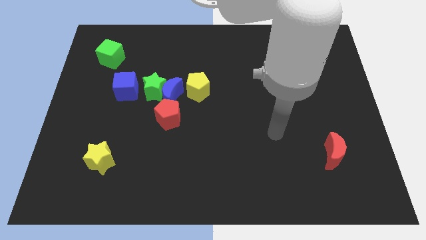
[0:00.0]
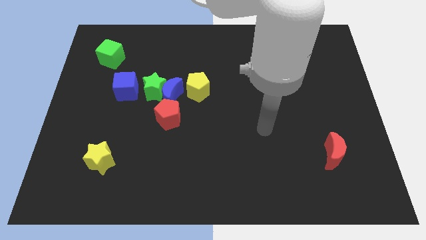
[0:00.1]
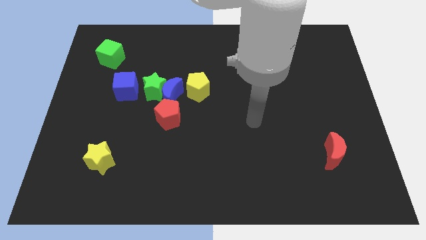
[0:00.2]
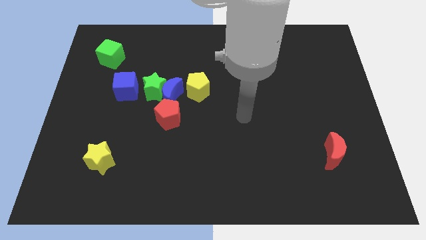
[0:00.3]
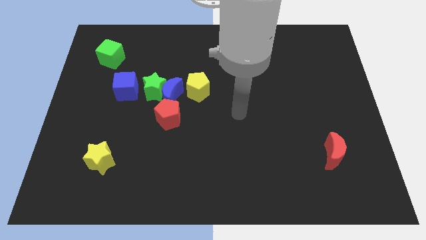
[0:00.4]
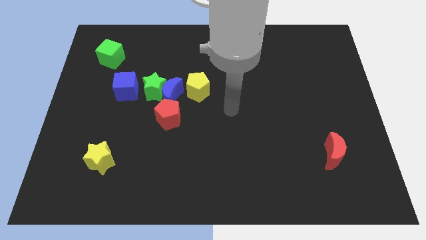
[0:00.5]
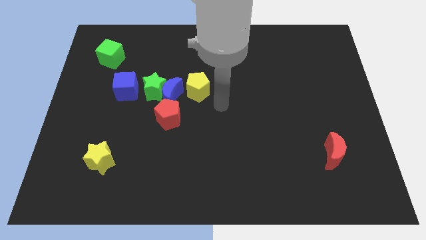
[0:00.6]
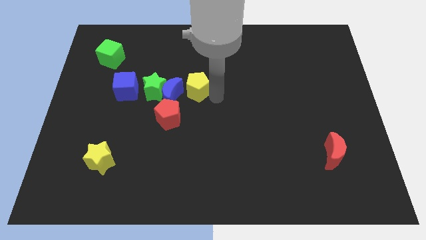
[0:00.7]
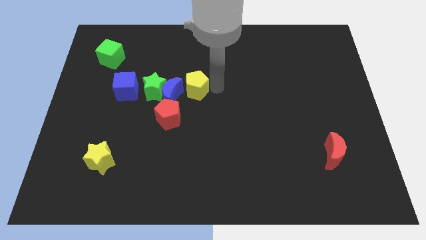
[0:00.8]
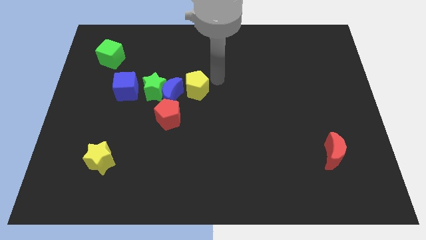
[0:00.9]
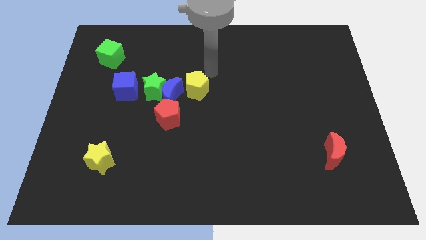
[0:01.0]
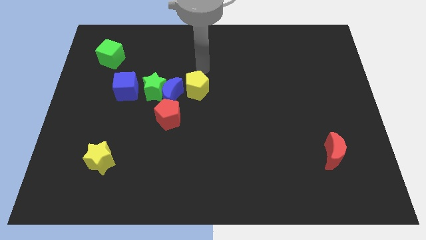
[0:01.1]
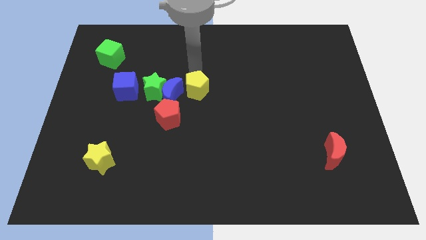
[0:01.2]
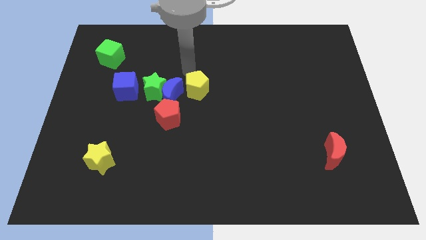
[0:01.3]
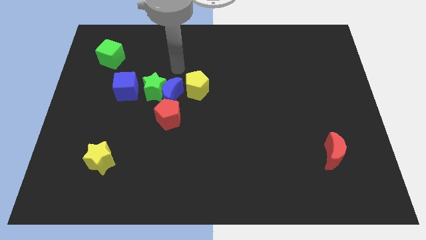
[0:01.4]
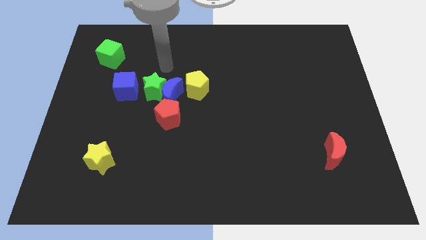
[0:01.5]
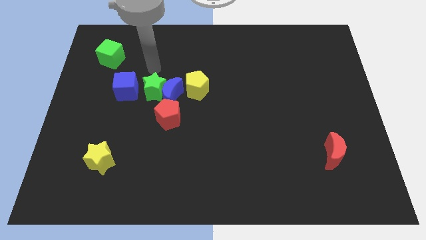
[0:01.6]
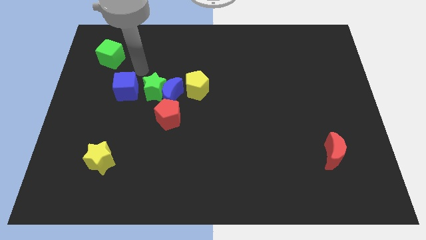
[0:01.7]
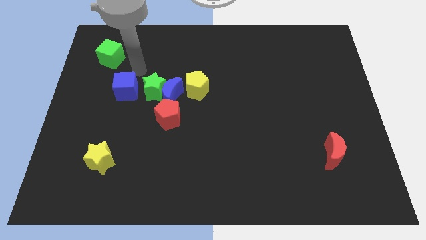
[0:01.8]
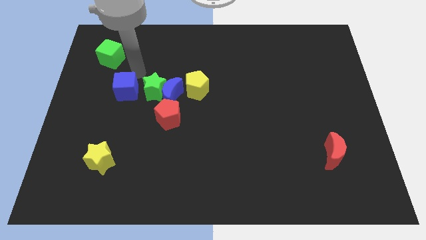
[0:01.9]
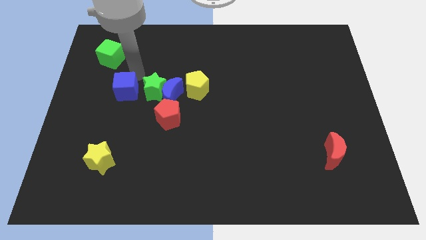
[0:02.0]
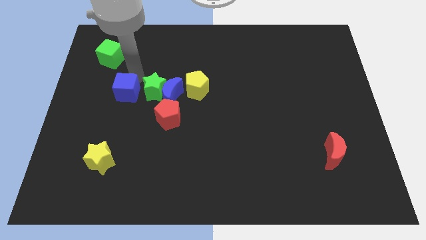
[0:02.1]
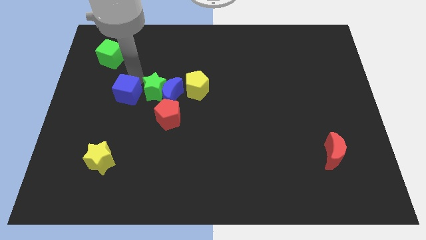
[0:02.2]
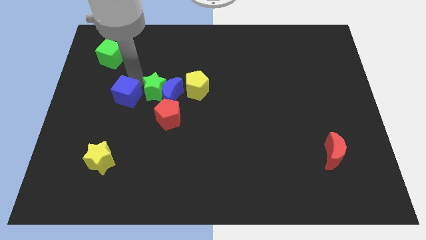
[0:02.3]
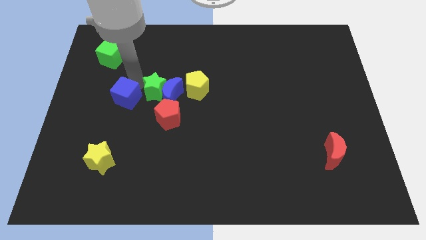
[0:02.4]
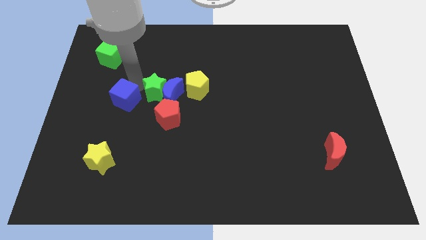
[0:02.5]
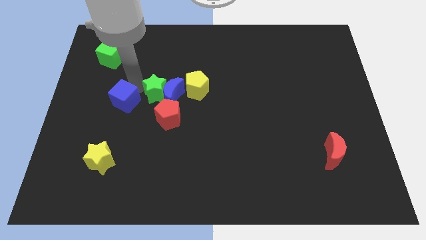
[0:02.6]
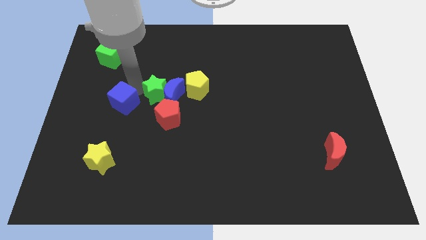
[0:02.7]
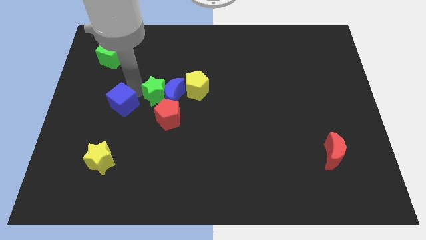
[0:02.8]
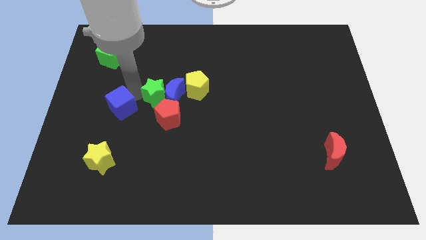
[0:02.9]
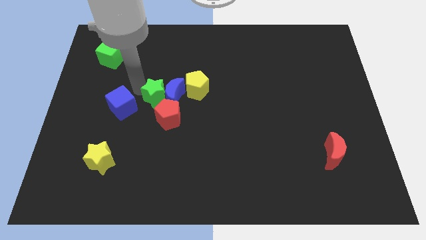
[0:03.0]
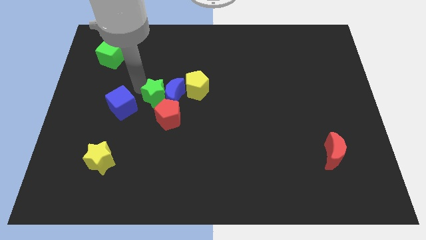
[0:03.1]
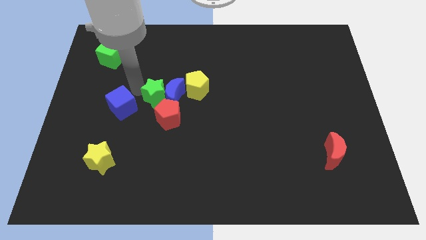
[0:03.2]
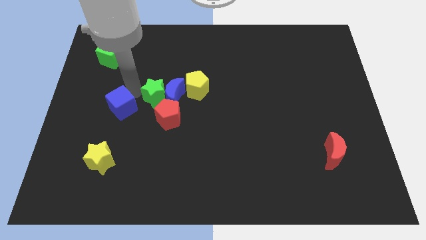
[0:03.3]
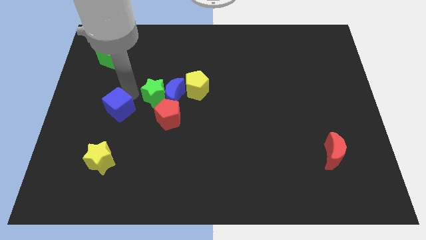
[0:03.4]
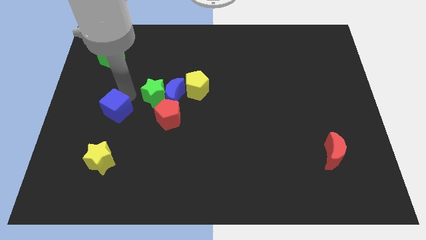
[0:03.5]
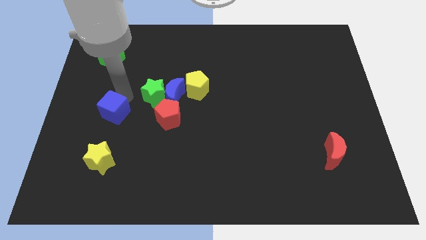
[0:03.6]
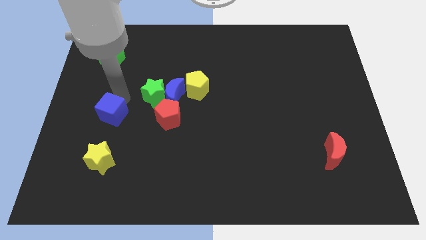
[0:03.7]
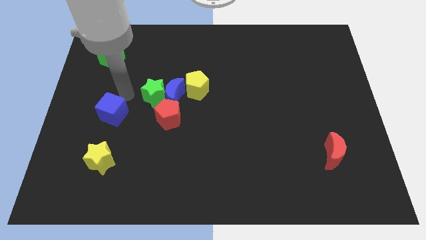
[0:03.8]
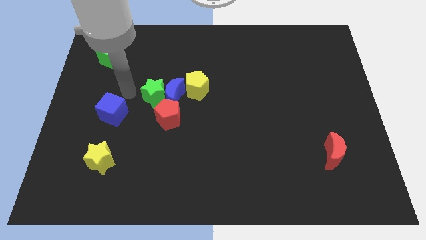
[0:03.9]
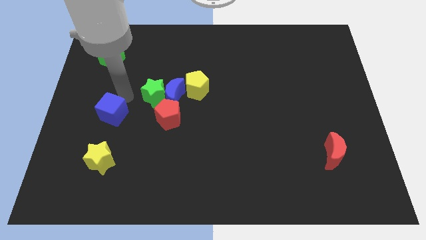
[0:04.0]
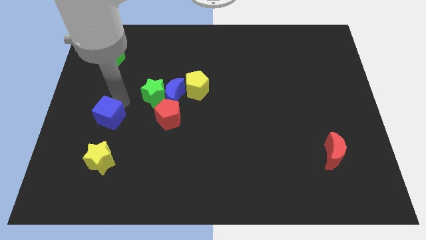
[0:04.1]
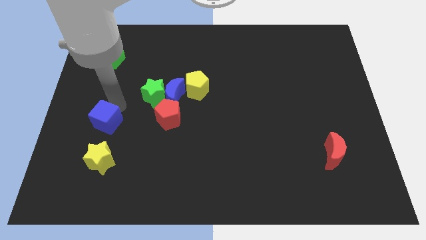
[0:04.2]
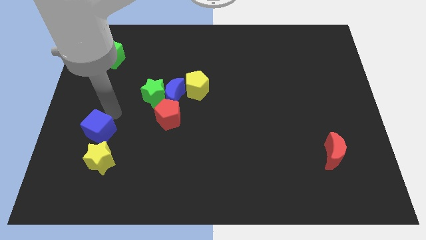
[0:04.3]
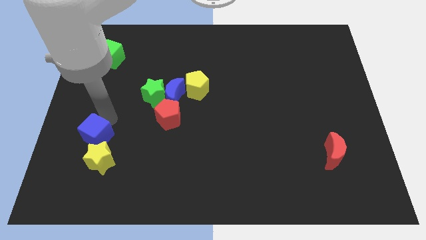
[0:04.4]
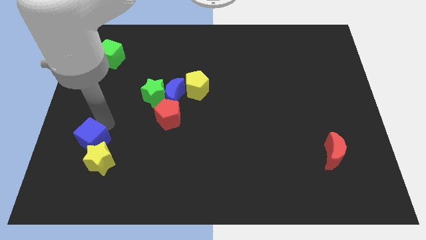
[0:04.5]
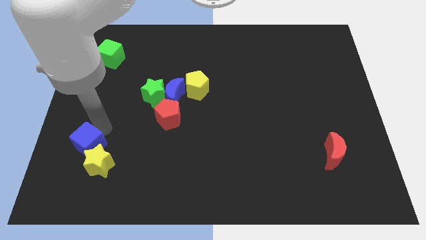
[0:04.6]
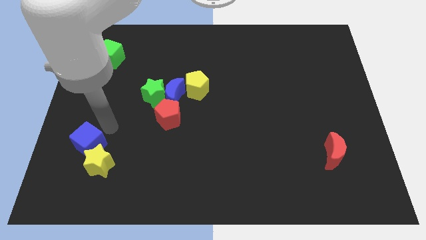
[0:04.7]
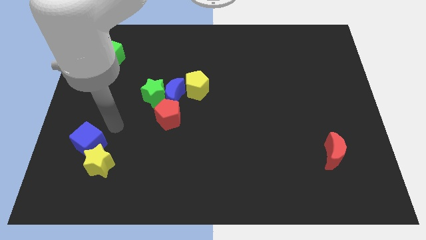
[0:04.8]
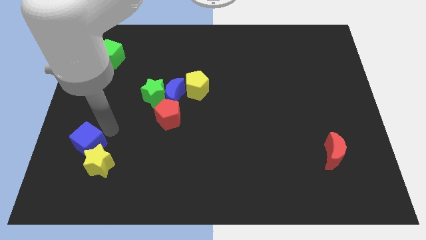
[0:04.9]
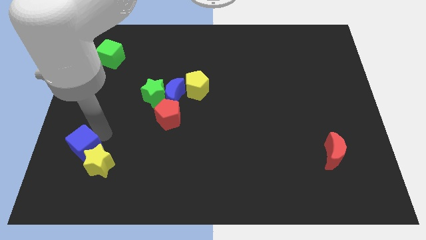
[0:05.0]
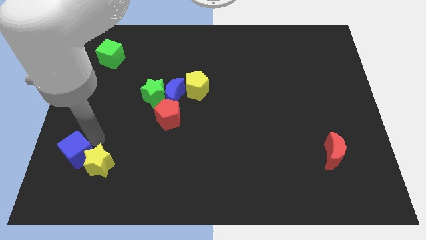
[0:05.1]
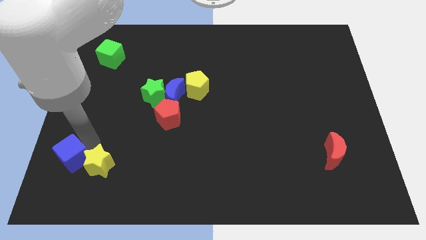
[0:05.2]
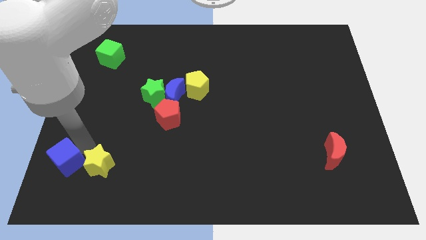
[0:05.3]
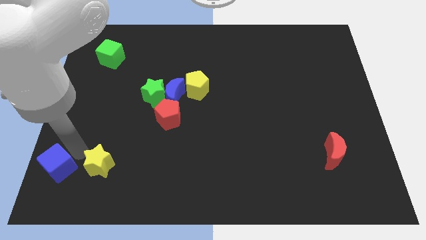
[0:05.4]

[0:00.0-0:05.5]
push the blue cube to the lower left corner

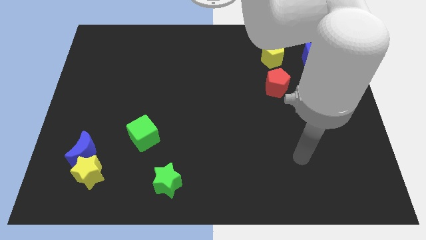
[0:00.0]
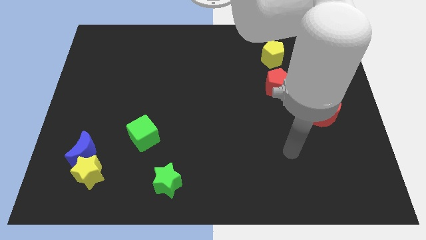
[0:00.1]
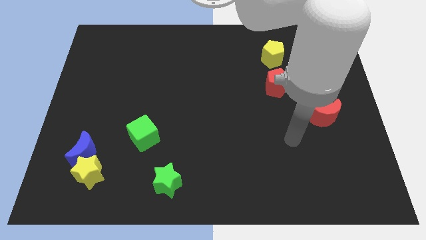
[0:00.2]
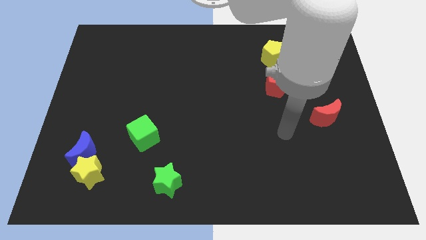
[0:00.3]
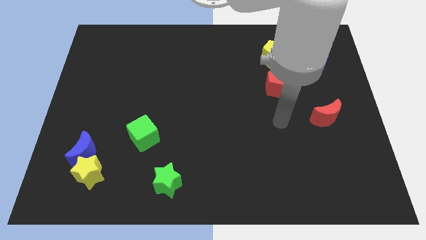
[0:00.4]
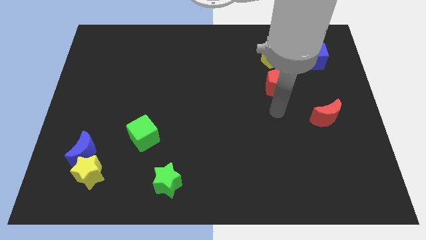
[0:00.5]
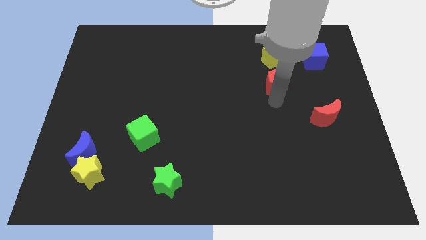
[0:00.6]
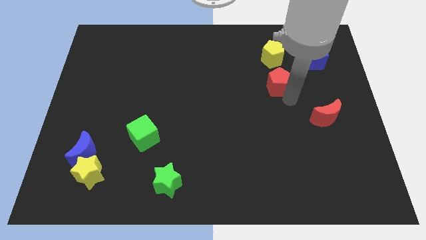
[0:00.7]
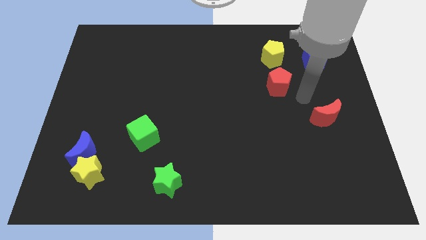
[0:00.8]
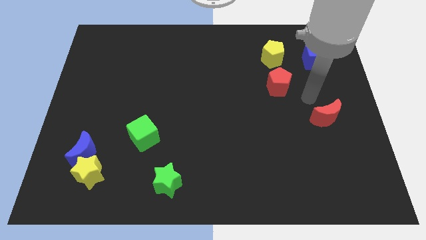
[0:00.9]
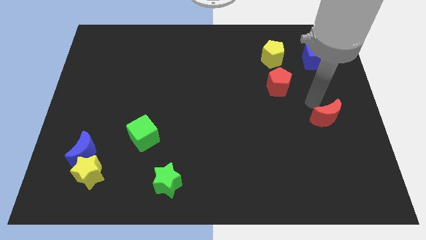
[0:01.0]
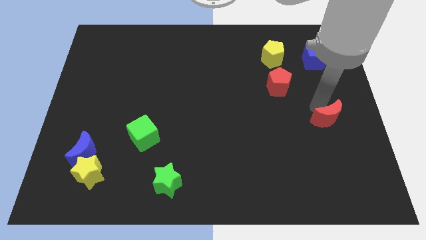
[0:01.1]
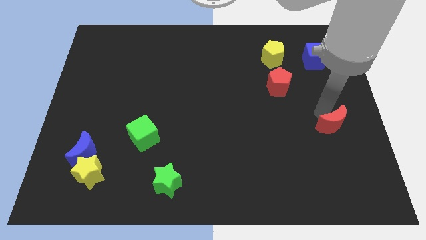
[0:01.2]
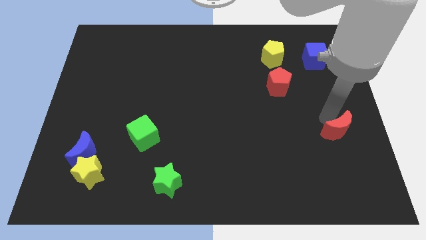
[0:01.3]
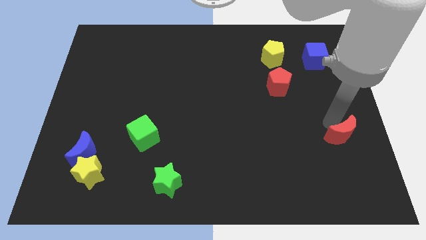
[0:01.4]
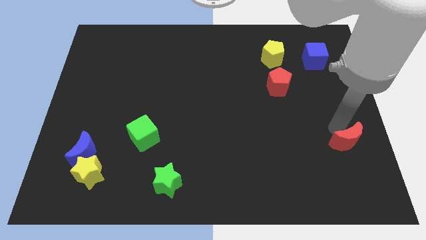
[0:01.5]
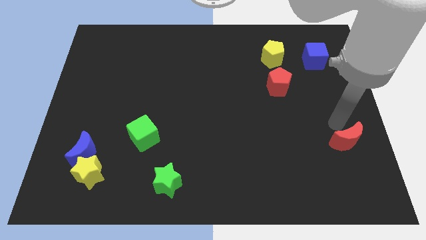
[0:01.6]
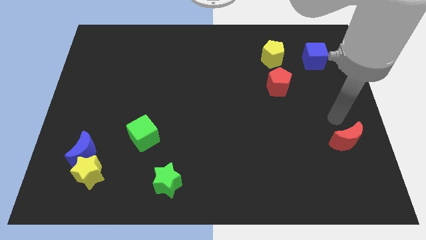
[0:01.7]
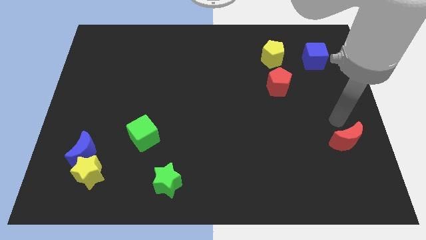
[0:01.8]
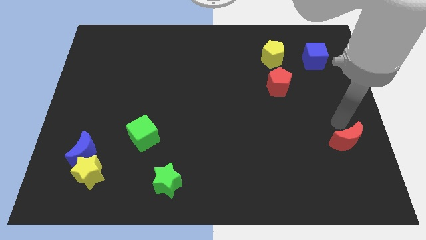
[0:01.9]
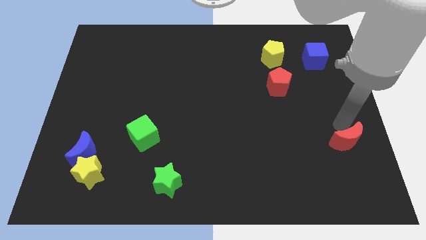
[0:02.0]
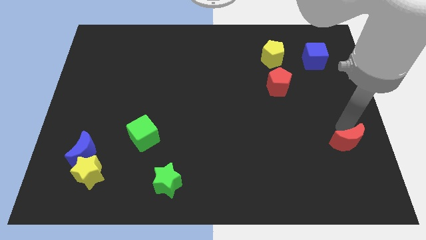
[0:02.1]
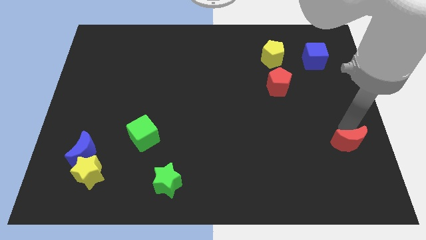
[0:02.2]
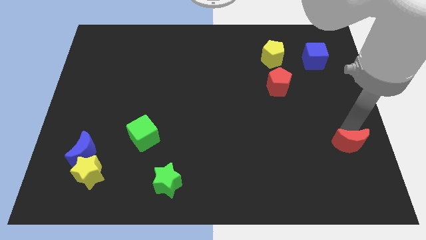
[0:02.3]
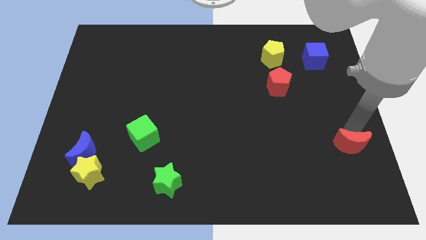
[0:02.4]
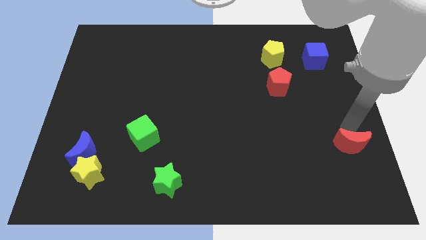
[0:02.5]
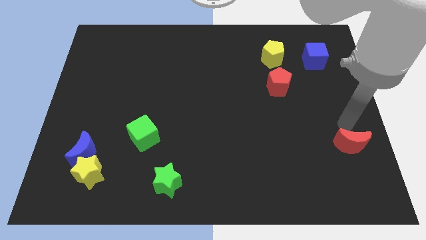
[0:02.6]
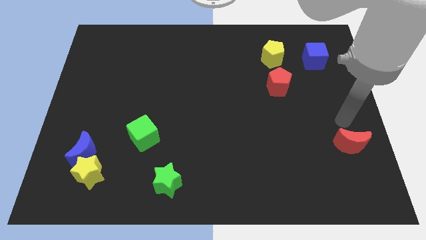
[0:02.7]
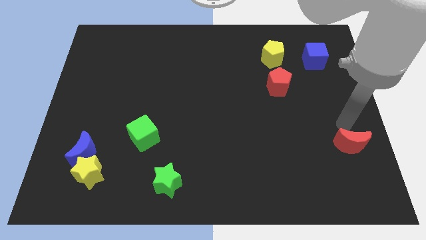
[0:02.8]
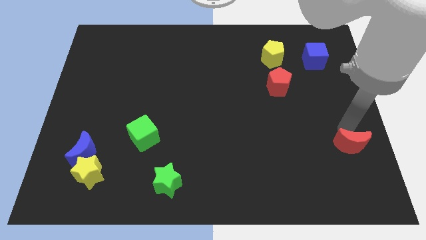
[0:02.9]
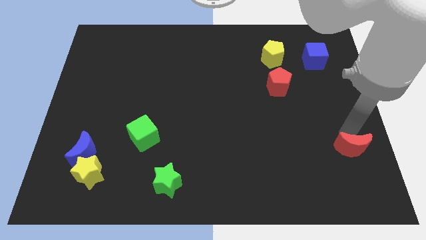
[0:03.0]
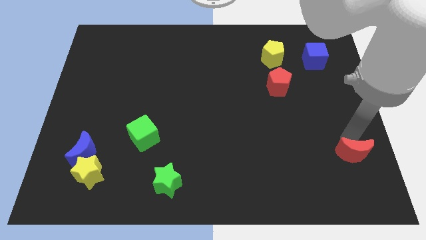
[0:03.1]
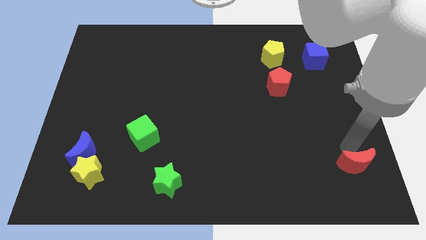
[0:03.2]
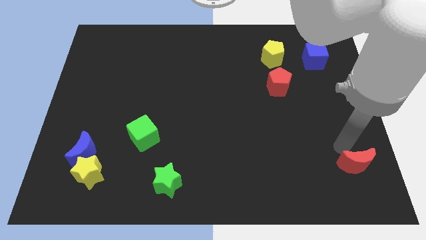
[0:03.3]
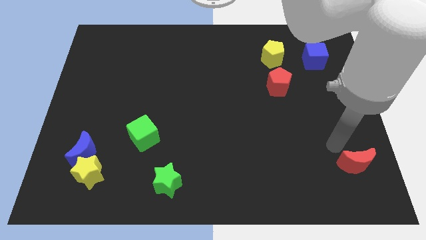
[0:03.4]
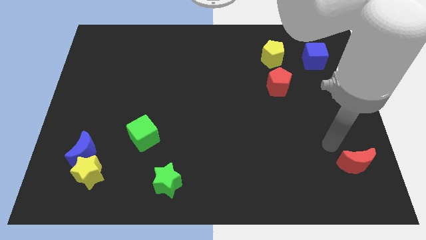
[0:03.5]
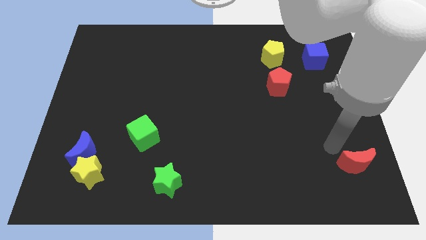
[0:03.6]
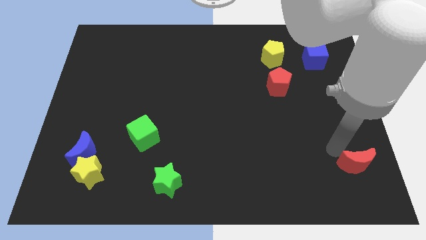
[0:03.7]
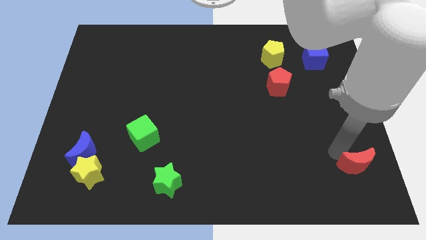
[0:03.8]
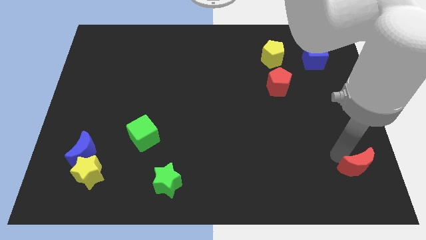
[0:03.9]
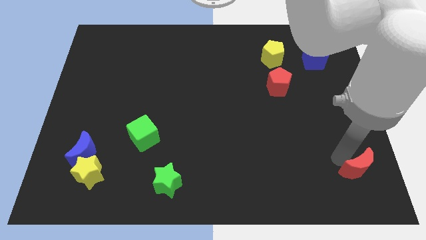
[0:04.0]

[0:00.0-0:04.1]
slide the red moon to the bottom right of the board
